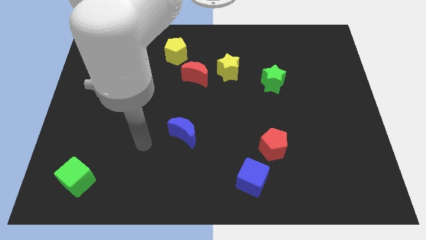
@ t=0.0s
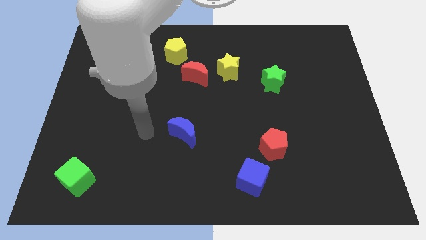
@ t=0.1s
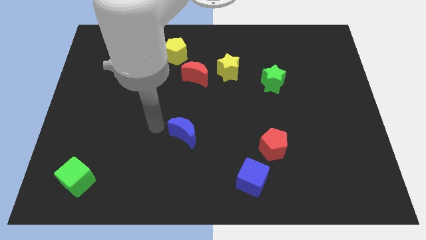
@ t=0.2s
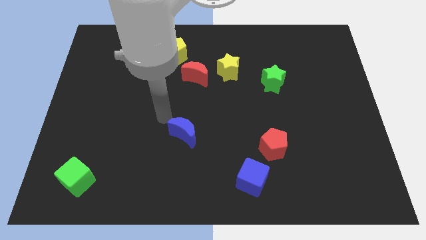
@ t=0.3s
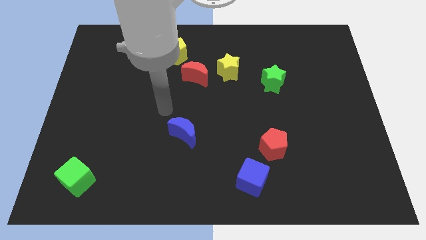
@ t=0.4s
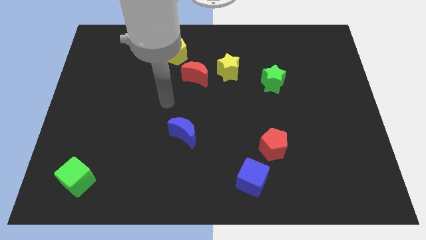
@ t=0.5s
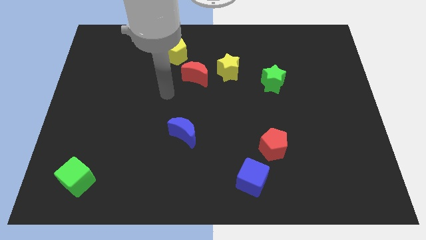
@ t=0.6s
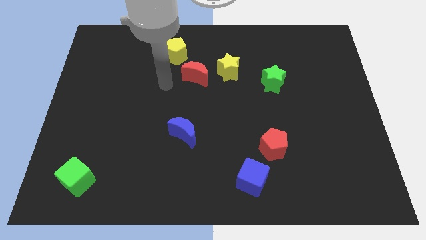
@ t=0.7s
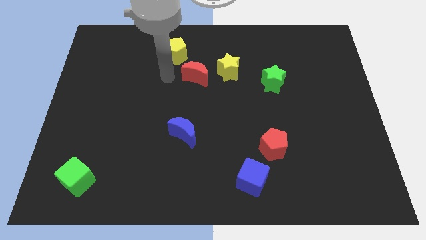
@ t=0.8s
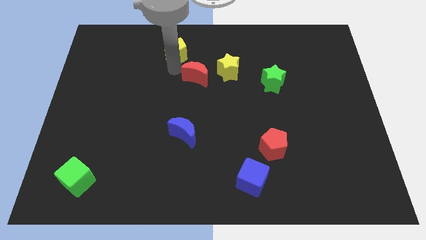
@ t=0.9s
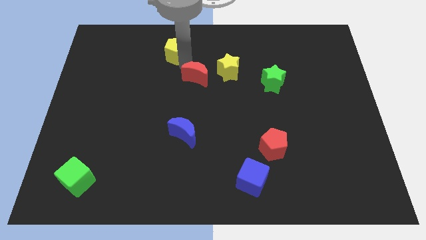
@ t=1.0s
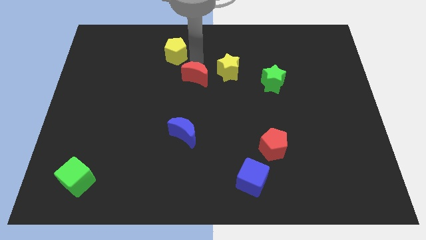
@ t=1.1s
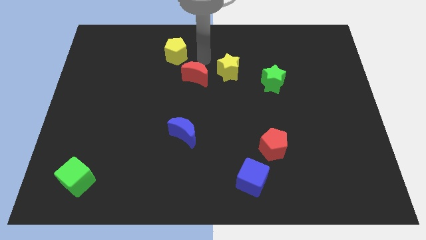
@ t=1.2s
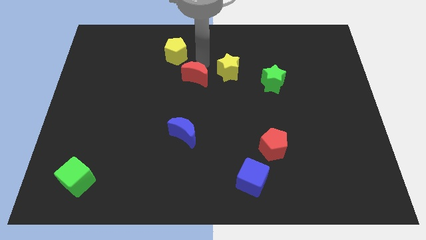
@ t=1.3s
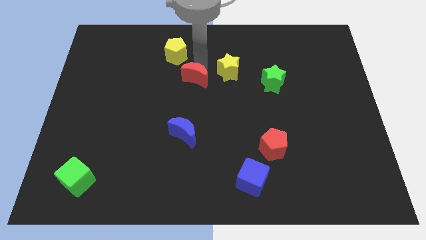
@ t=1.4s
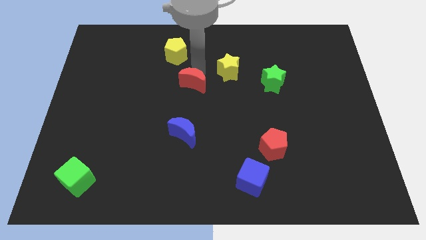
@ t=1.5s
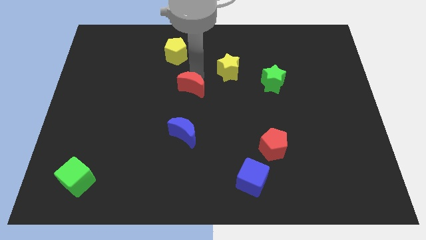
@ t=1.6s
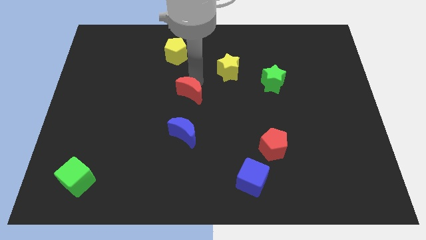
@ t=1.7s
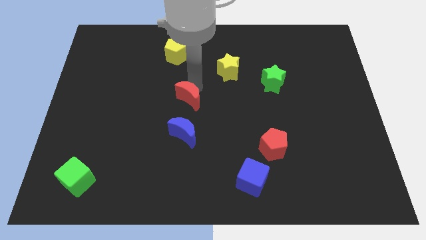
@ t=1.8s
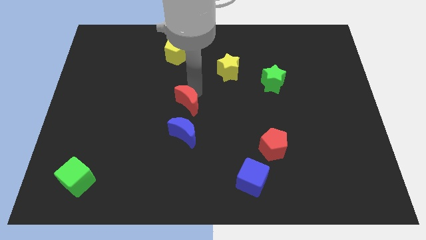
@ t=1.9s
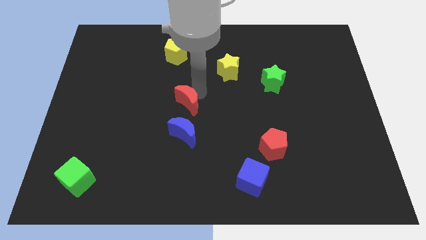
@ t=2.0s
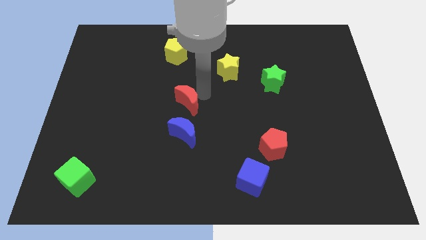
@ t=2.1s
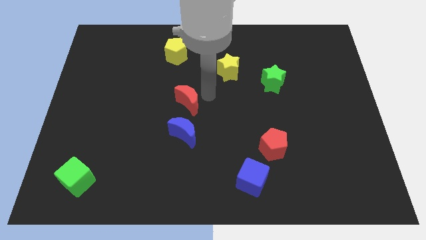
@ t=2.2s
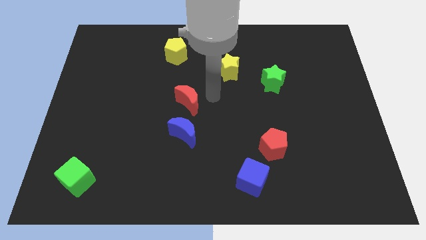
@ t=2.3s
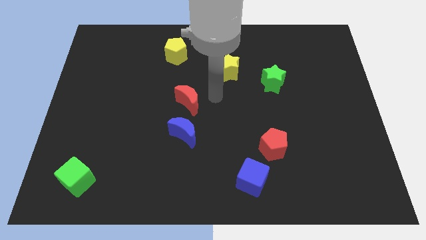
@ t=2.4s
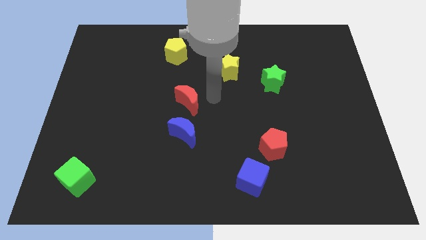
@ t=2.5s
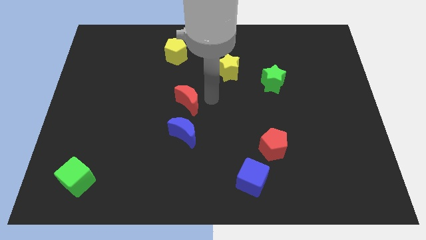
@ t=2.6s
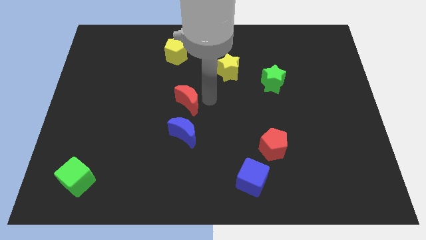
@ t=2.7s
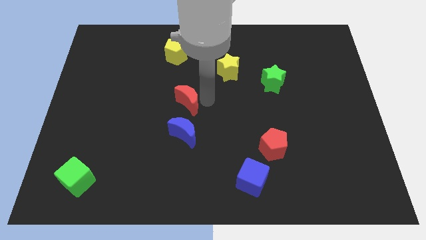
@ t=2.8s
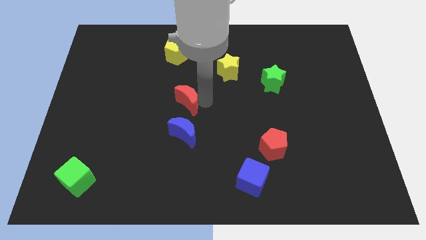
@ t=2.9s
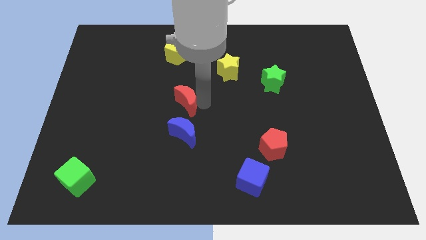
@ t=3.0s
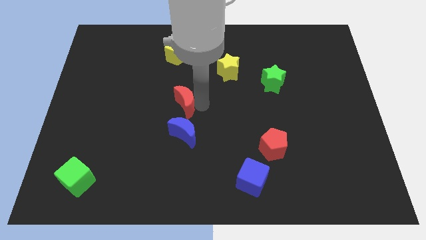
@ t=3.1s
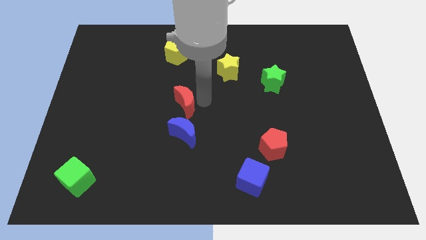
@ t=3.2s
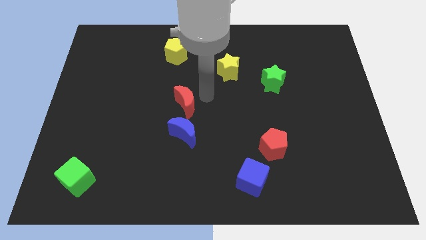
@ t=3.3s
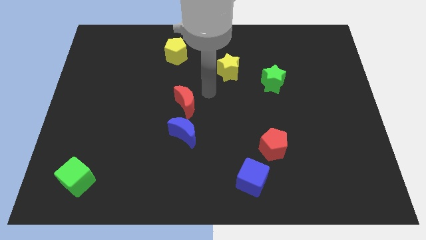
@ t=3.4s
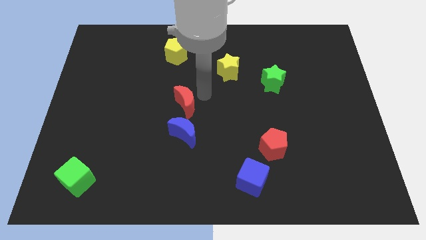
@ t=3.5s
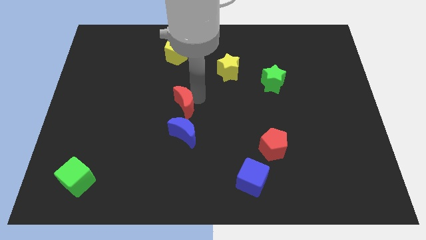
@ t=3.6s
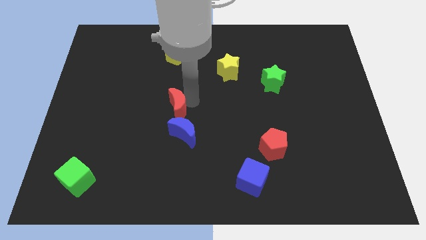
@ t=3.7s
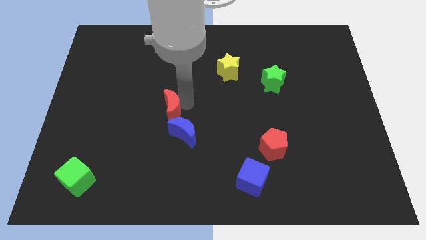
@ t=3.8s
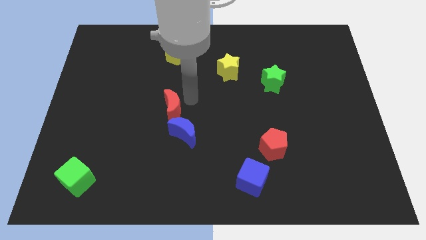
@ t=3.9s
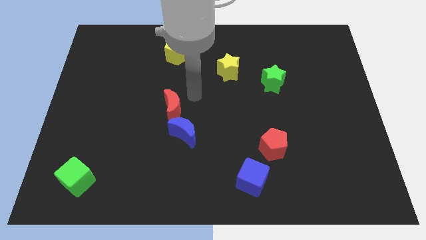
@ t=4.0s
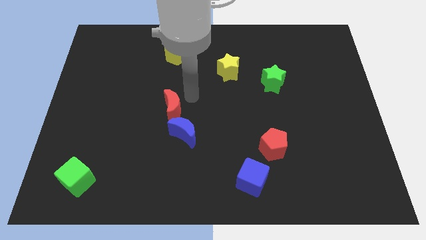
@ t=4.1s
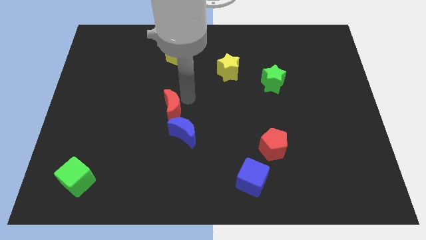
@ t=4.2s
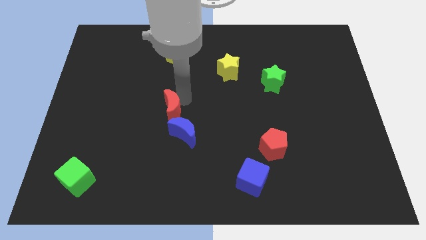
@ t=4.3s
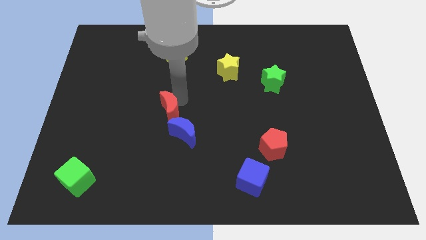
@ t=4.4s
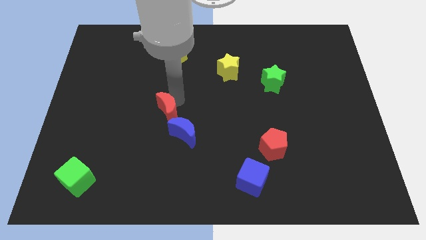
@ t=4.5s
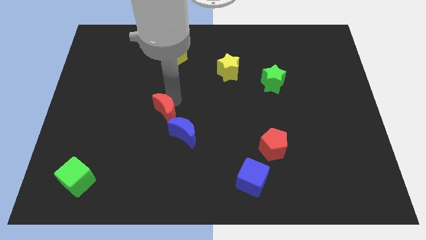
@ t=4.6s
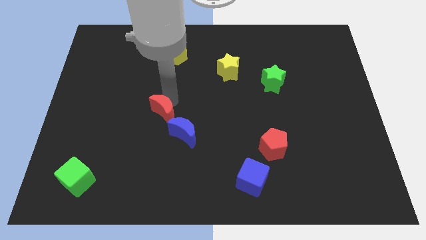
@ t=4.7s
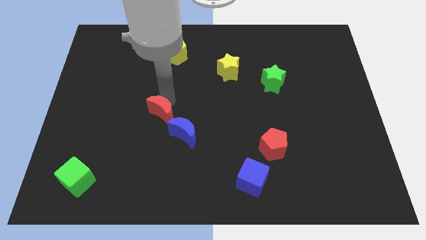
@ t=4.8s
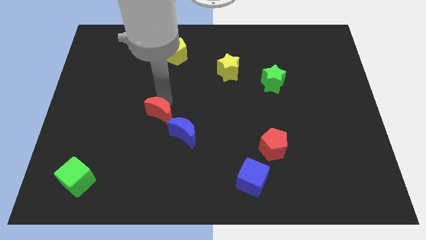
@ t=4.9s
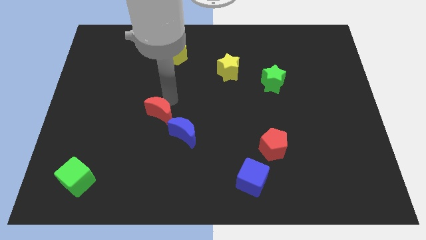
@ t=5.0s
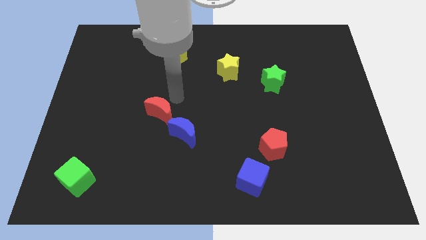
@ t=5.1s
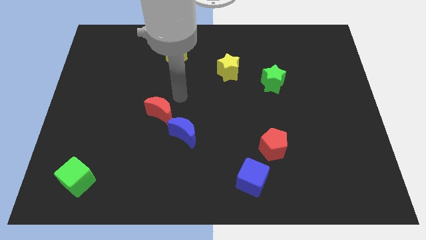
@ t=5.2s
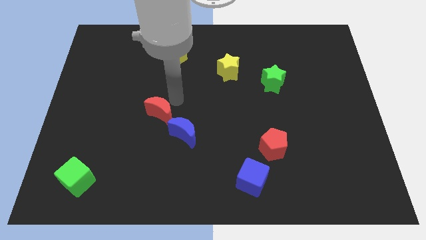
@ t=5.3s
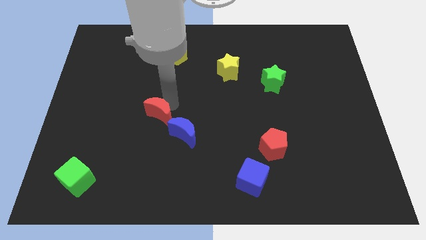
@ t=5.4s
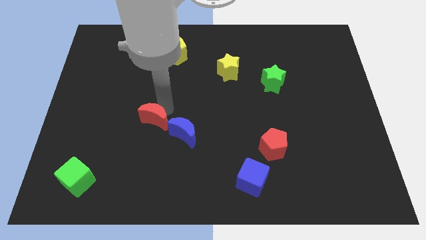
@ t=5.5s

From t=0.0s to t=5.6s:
move the red moon to the left of the blue moon

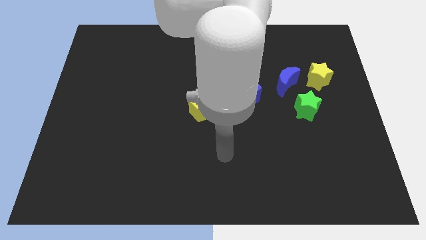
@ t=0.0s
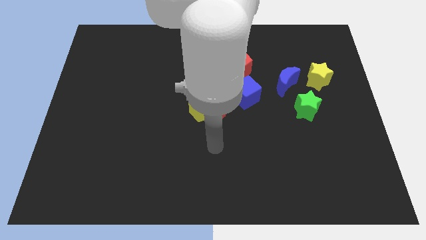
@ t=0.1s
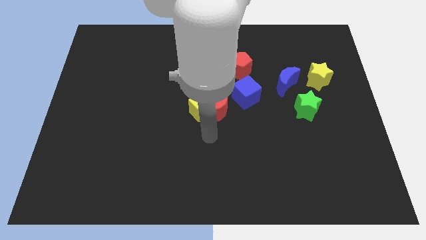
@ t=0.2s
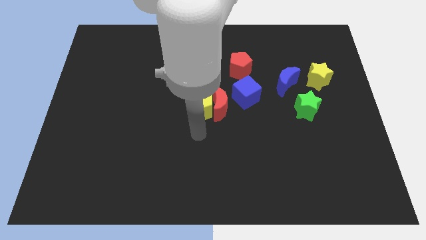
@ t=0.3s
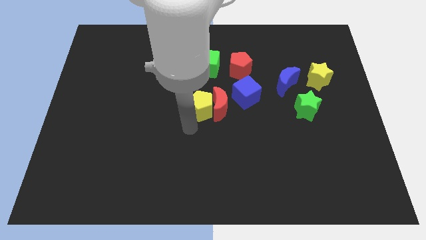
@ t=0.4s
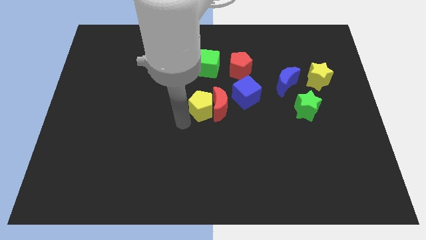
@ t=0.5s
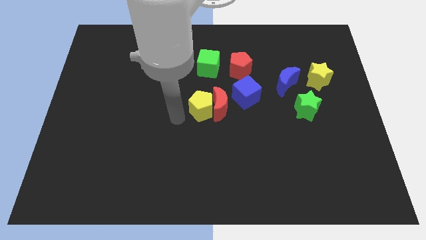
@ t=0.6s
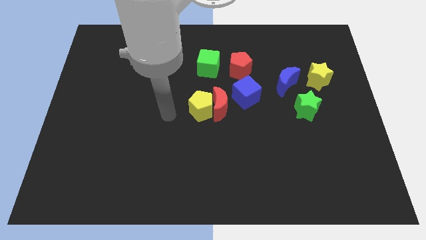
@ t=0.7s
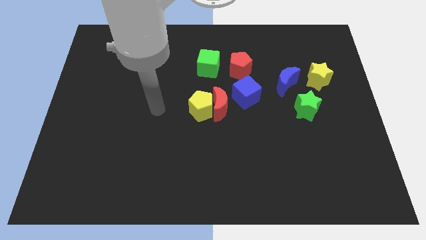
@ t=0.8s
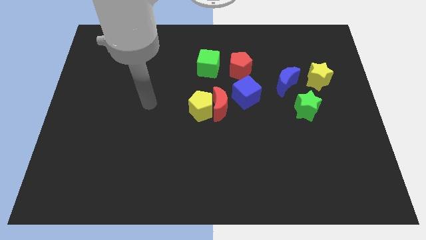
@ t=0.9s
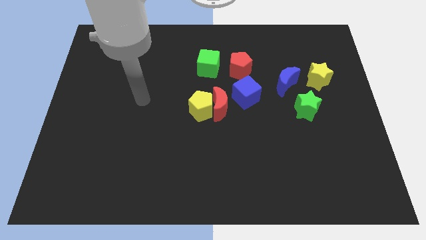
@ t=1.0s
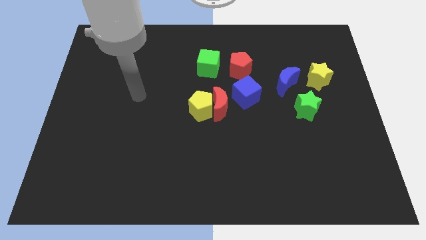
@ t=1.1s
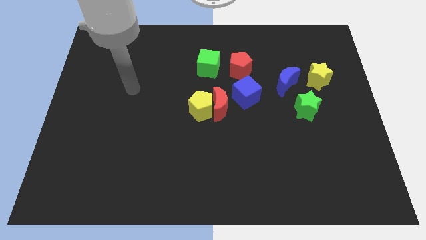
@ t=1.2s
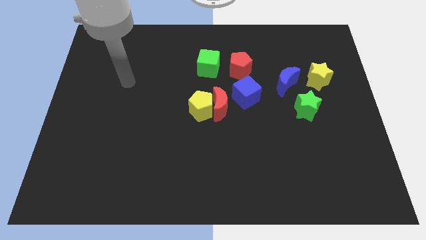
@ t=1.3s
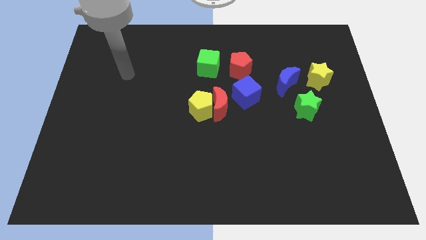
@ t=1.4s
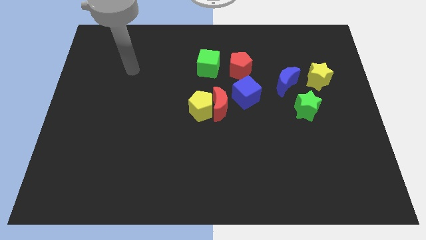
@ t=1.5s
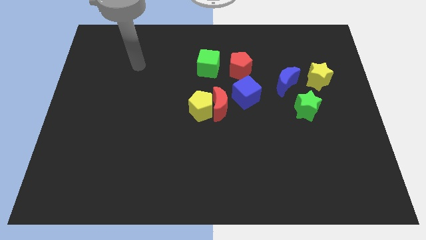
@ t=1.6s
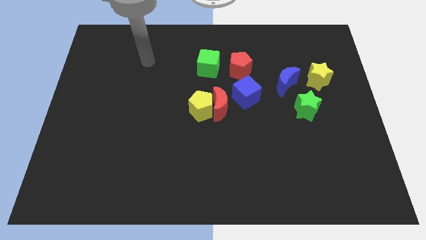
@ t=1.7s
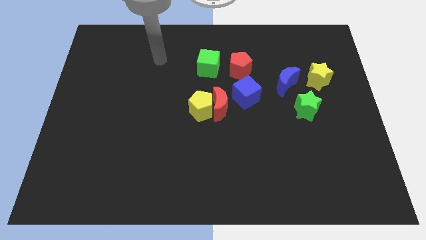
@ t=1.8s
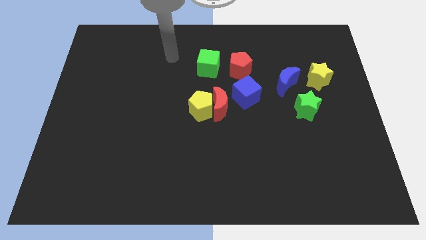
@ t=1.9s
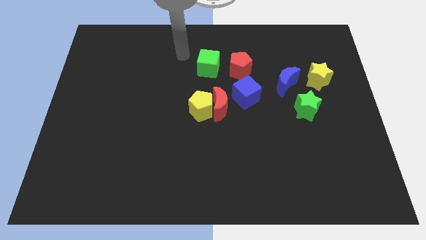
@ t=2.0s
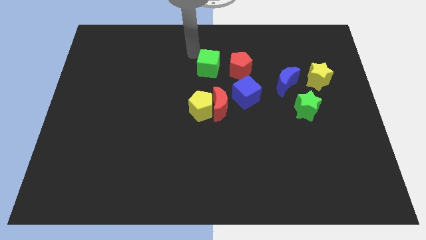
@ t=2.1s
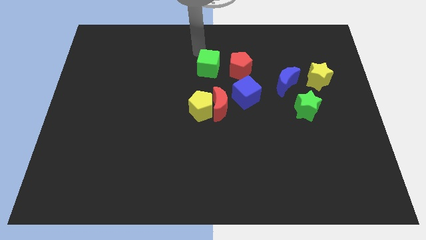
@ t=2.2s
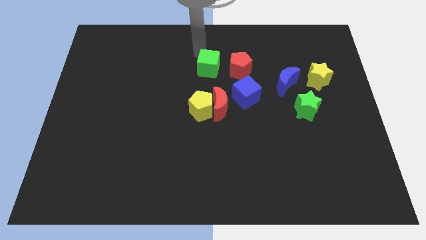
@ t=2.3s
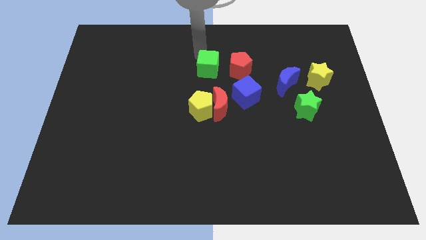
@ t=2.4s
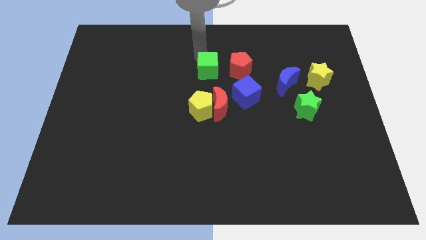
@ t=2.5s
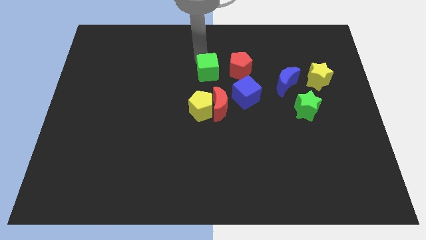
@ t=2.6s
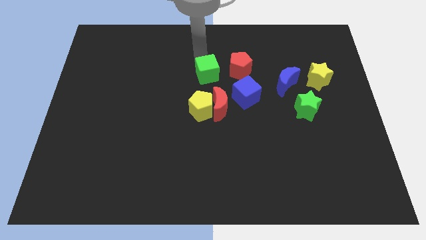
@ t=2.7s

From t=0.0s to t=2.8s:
put the green cube diagonally down and to the left of the red pentagon
